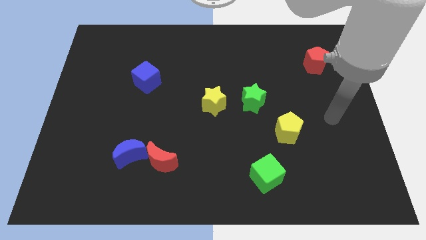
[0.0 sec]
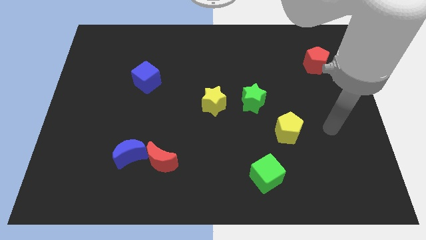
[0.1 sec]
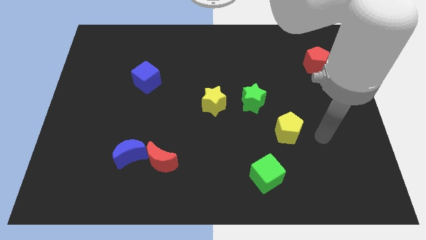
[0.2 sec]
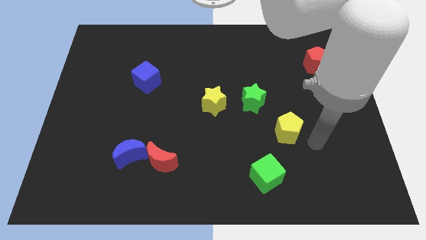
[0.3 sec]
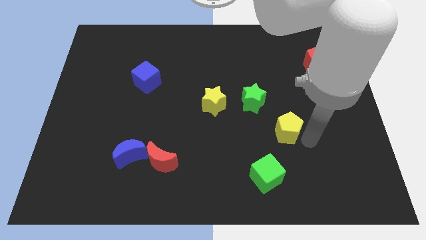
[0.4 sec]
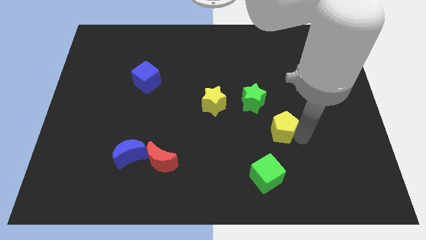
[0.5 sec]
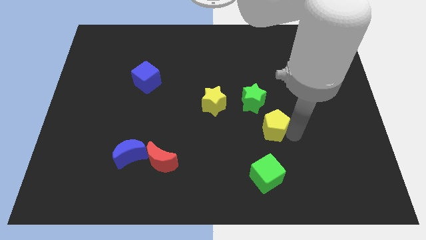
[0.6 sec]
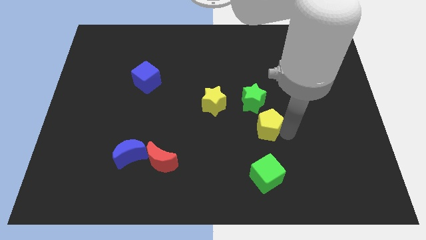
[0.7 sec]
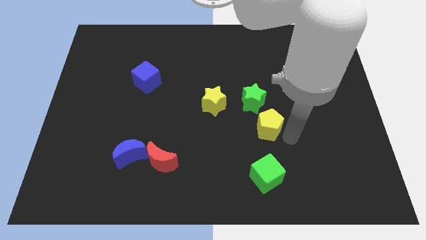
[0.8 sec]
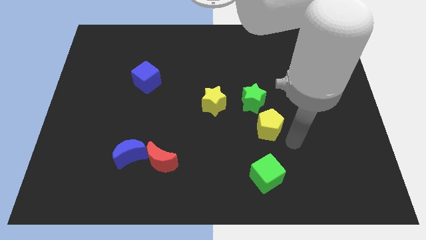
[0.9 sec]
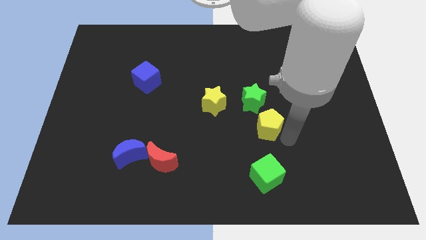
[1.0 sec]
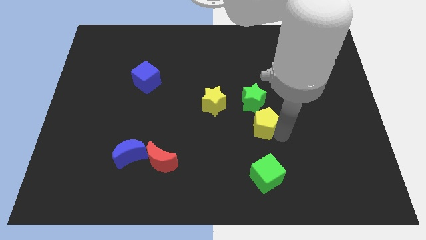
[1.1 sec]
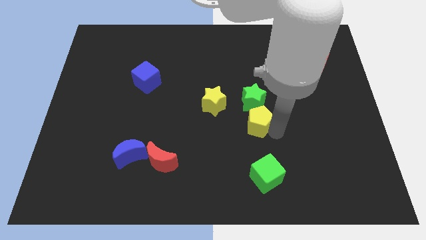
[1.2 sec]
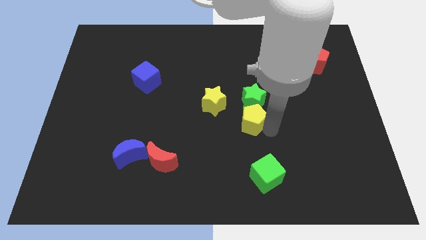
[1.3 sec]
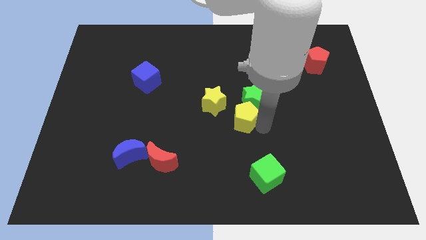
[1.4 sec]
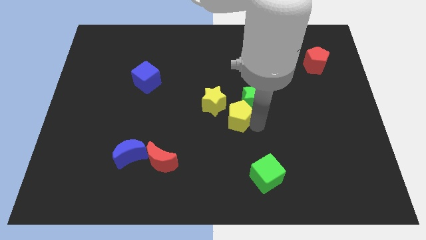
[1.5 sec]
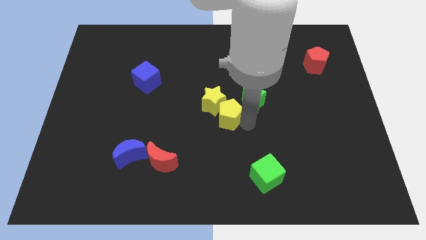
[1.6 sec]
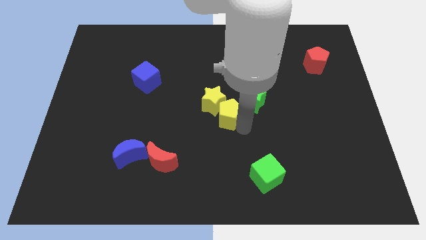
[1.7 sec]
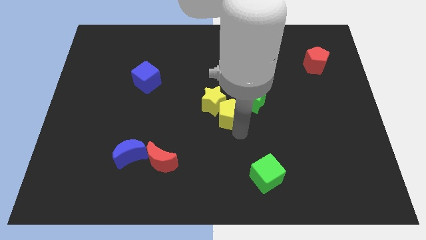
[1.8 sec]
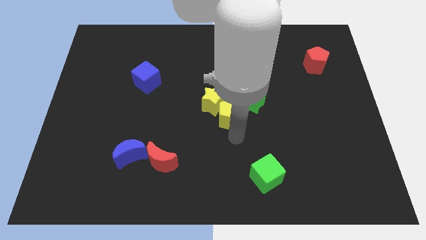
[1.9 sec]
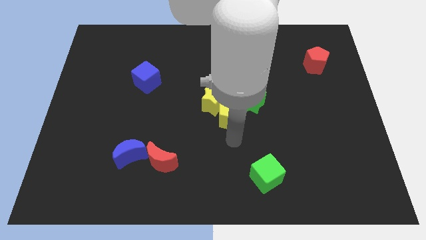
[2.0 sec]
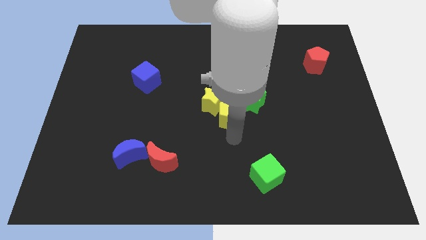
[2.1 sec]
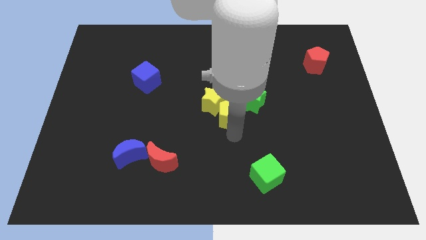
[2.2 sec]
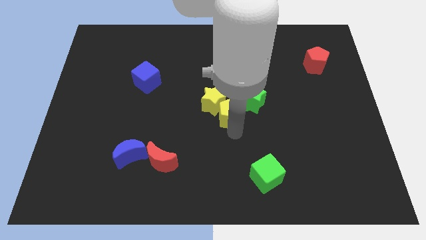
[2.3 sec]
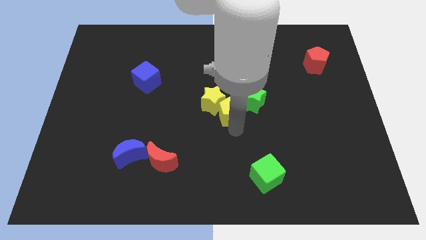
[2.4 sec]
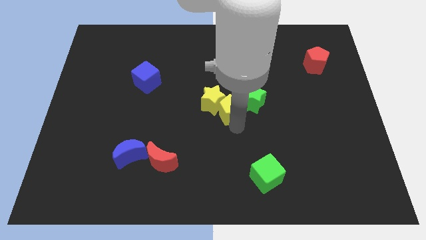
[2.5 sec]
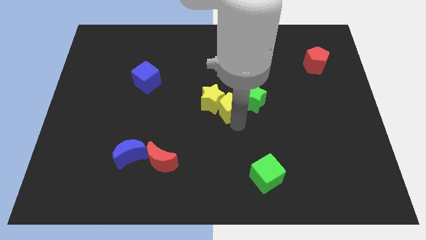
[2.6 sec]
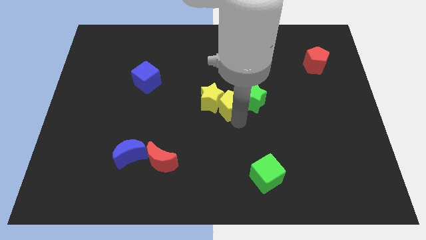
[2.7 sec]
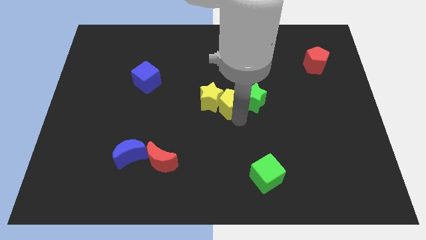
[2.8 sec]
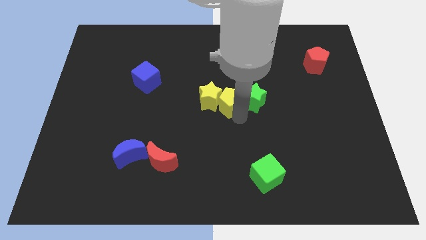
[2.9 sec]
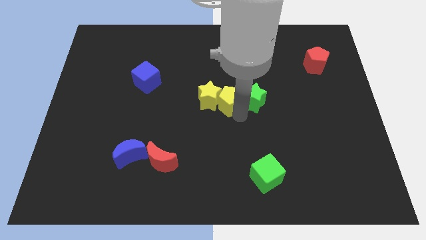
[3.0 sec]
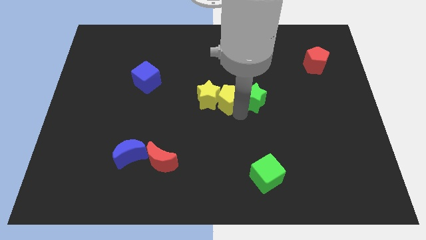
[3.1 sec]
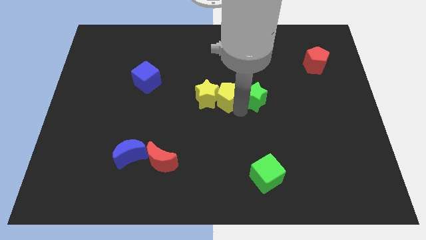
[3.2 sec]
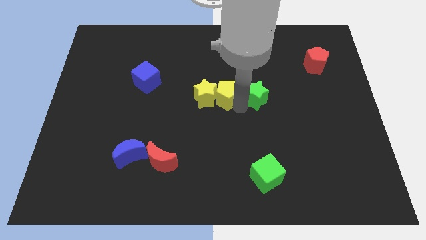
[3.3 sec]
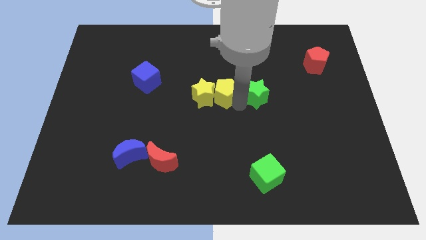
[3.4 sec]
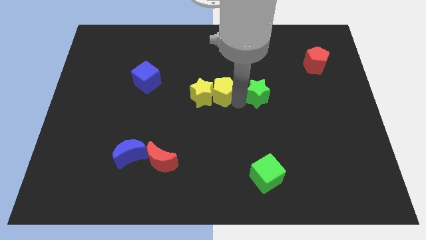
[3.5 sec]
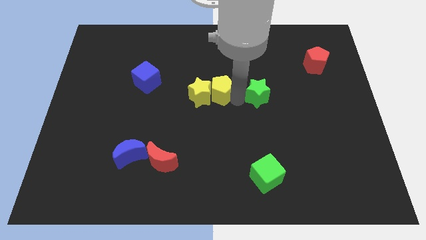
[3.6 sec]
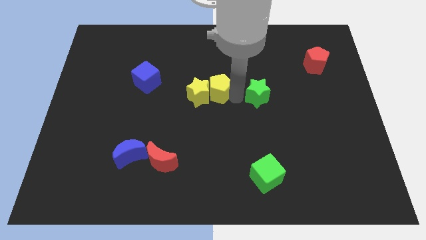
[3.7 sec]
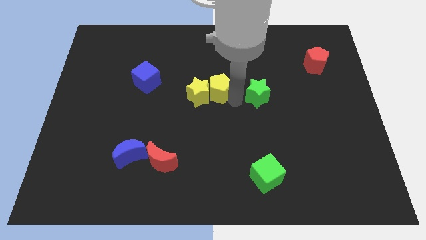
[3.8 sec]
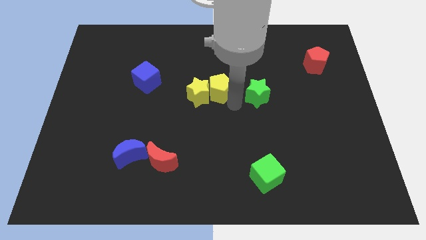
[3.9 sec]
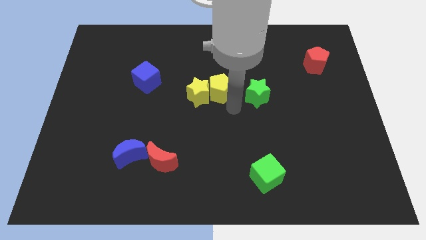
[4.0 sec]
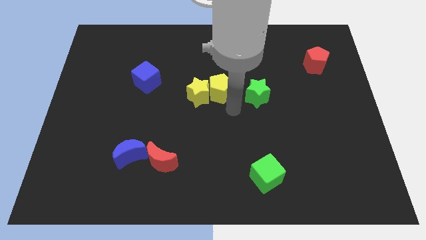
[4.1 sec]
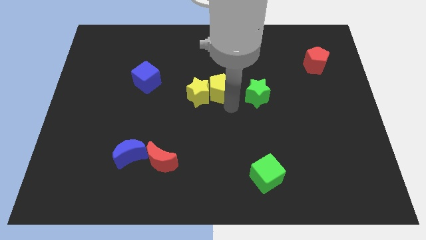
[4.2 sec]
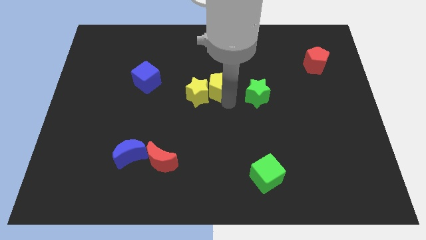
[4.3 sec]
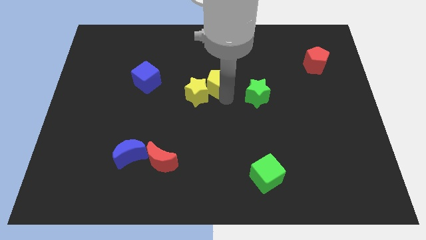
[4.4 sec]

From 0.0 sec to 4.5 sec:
push the yellow pentagon upwards and left

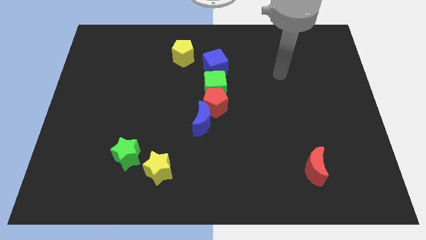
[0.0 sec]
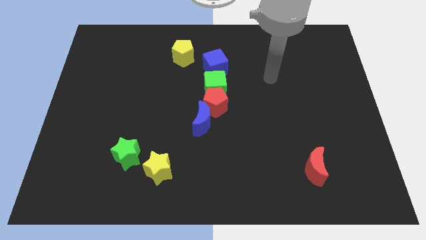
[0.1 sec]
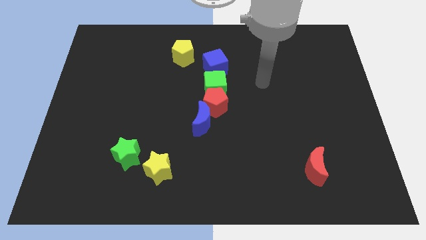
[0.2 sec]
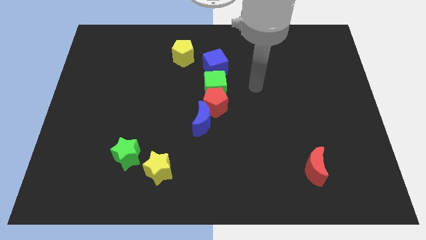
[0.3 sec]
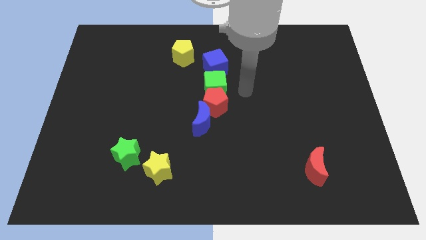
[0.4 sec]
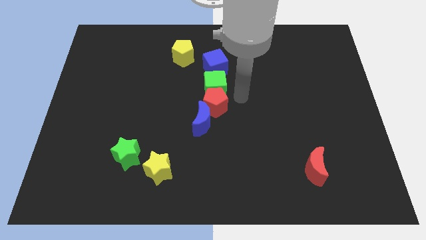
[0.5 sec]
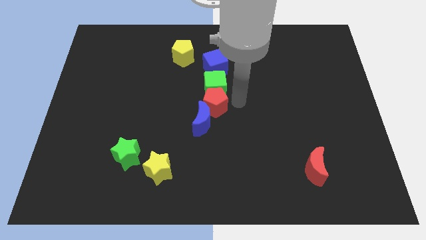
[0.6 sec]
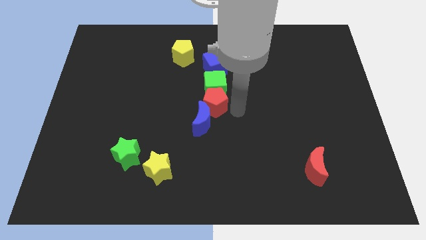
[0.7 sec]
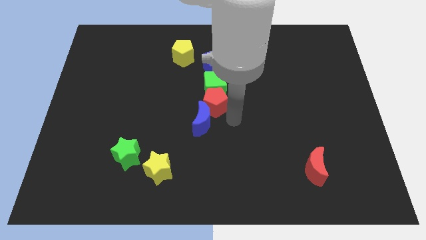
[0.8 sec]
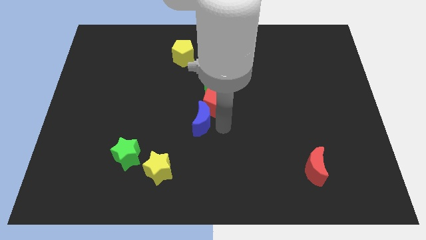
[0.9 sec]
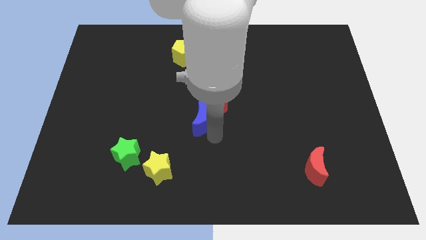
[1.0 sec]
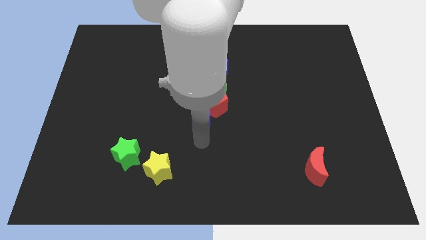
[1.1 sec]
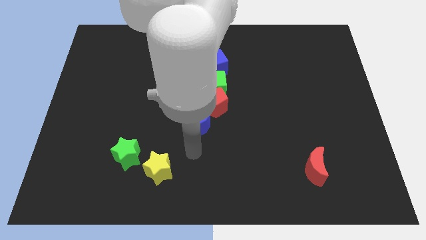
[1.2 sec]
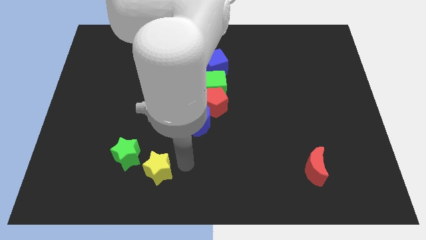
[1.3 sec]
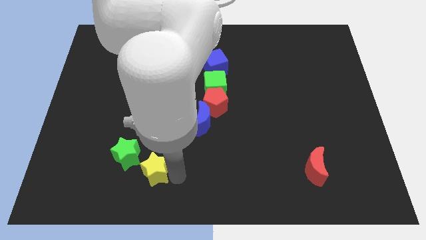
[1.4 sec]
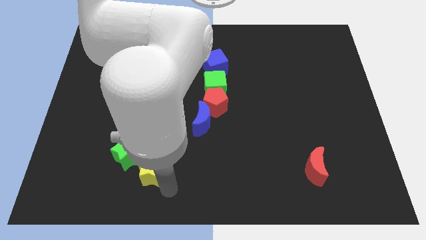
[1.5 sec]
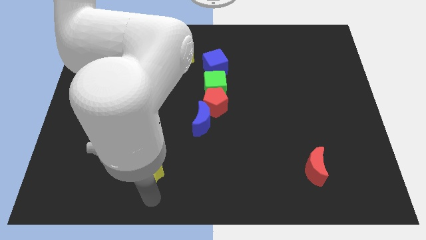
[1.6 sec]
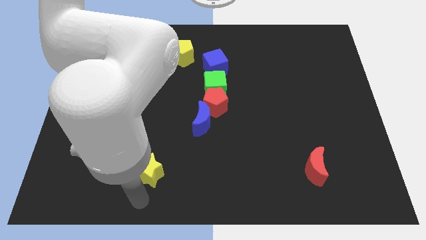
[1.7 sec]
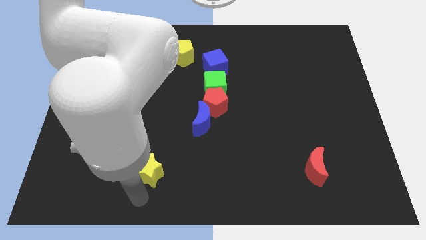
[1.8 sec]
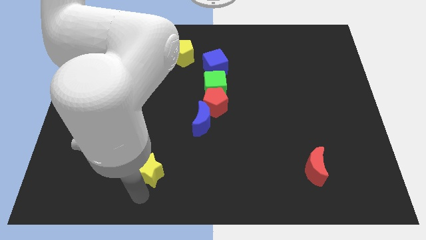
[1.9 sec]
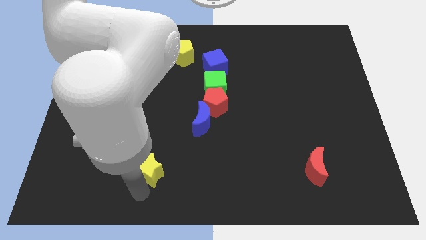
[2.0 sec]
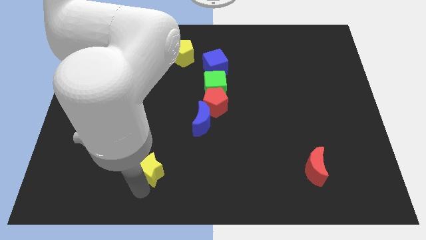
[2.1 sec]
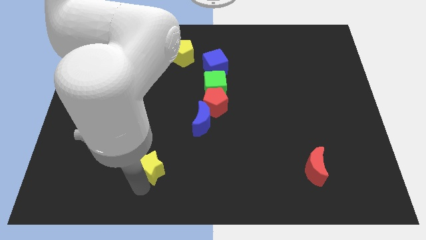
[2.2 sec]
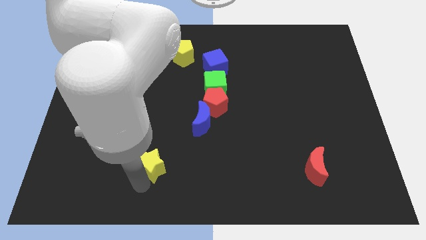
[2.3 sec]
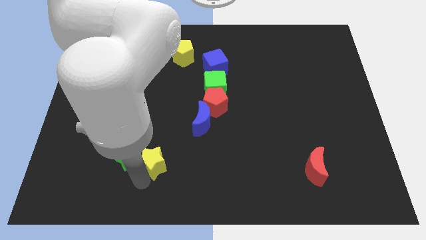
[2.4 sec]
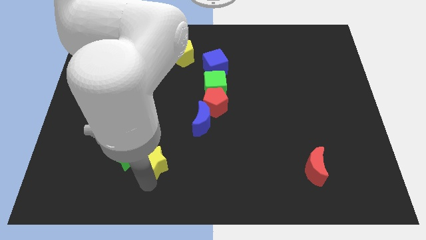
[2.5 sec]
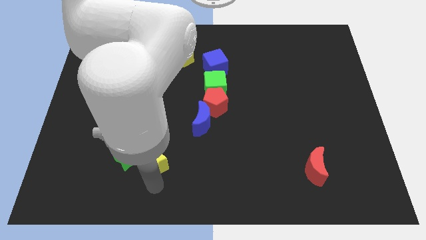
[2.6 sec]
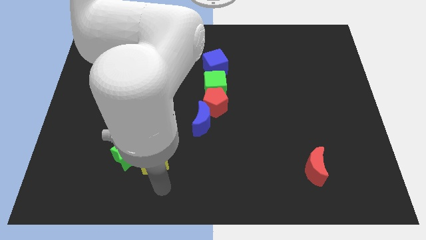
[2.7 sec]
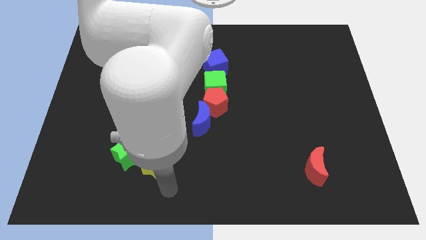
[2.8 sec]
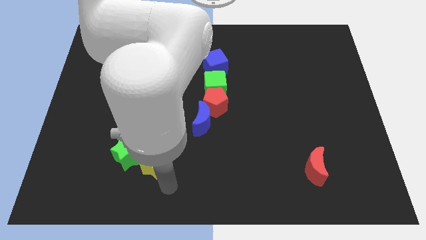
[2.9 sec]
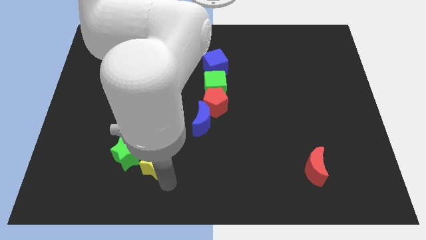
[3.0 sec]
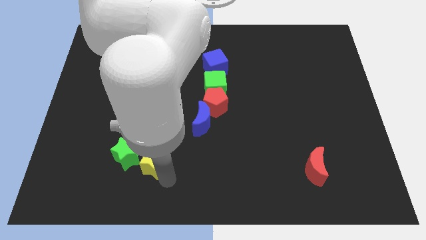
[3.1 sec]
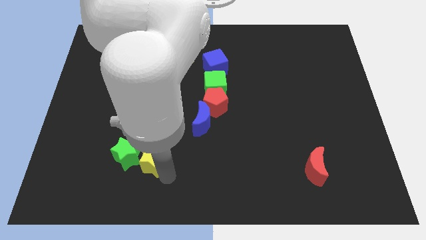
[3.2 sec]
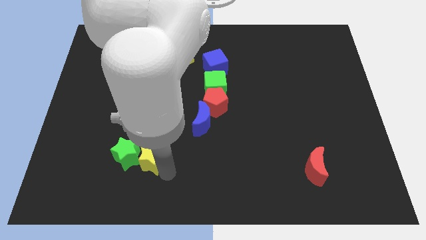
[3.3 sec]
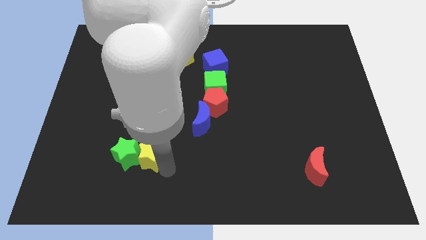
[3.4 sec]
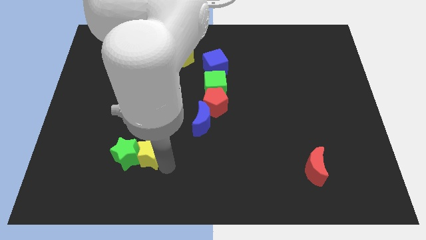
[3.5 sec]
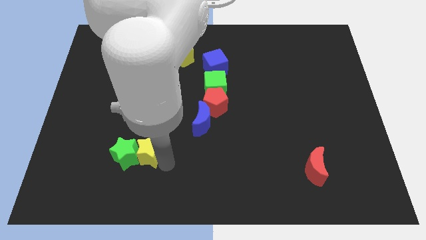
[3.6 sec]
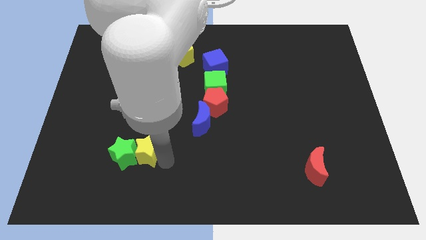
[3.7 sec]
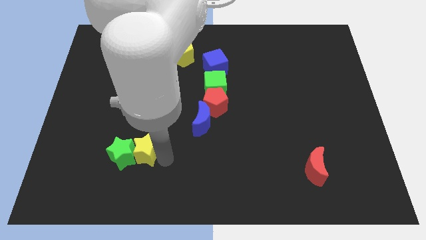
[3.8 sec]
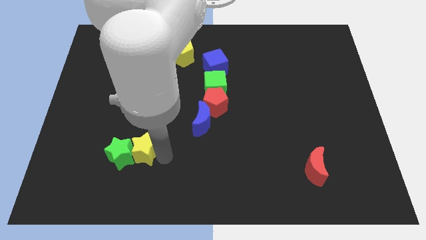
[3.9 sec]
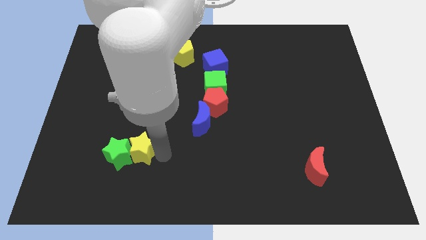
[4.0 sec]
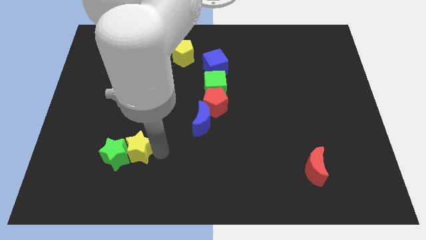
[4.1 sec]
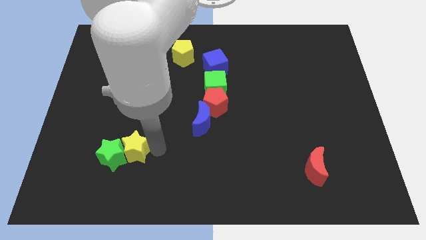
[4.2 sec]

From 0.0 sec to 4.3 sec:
slightly move the yellow star upwards and then left
